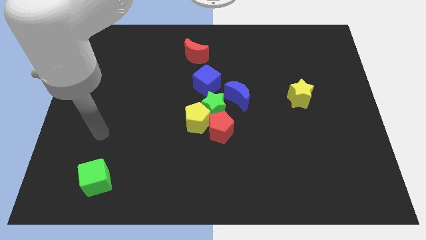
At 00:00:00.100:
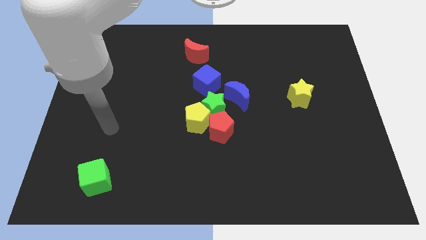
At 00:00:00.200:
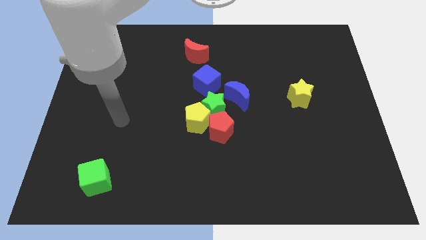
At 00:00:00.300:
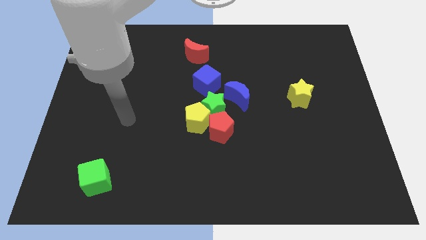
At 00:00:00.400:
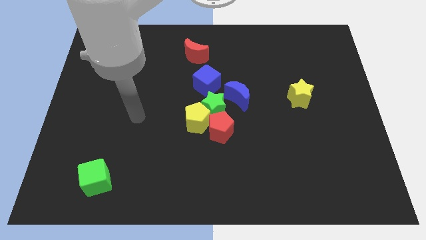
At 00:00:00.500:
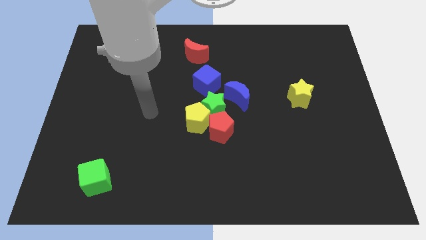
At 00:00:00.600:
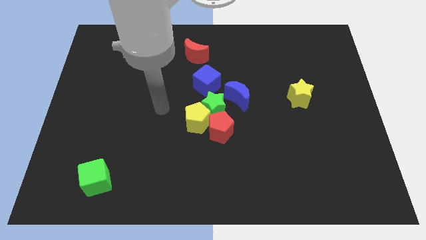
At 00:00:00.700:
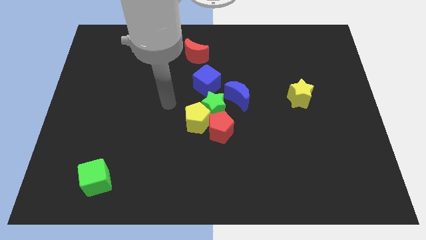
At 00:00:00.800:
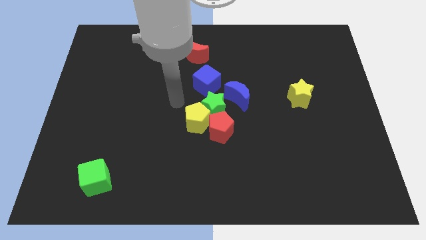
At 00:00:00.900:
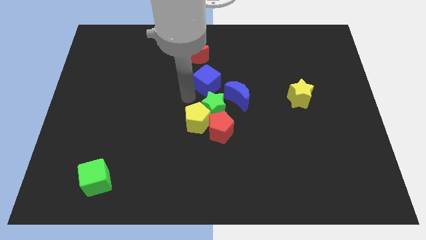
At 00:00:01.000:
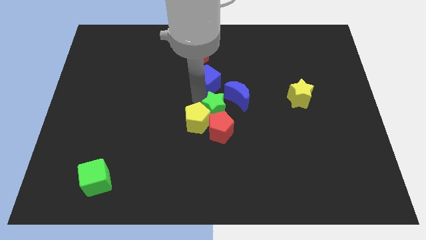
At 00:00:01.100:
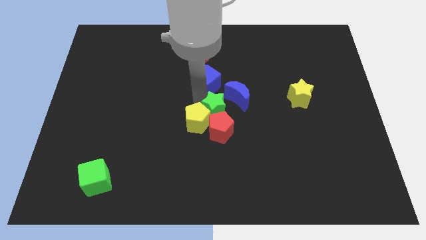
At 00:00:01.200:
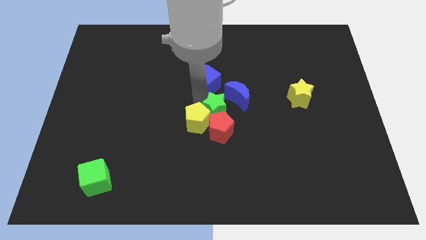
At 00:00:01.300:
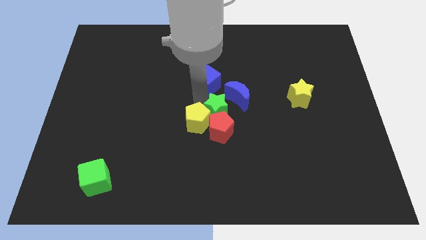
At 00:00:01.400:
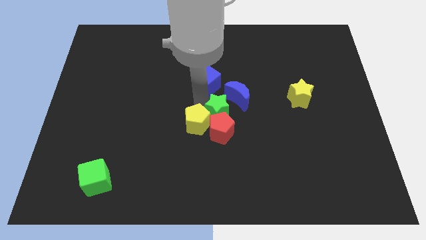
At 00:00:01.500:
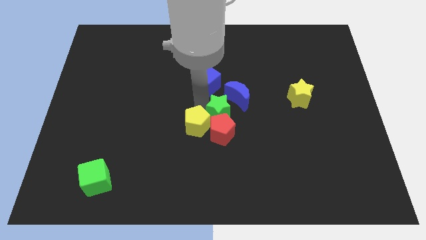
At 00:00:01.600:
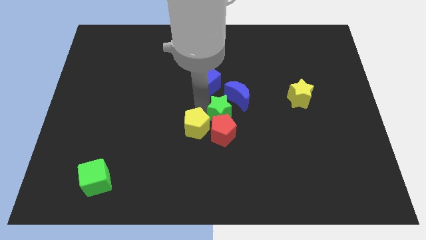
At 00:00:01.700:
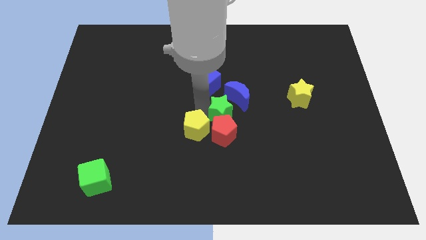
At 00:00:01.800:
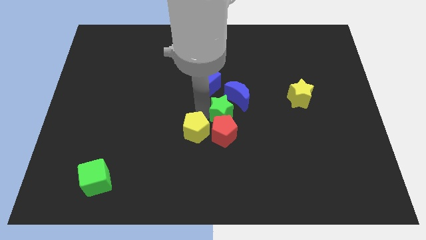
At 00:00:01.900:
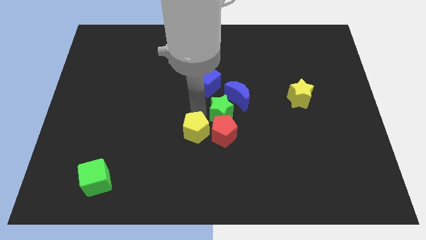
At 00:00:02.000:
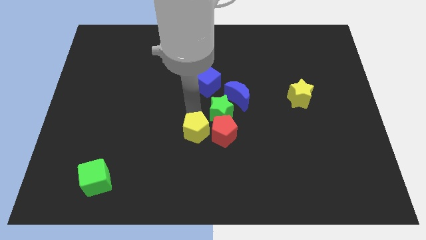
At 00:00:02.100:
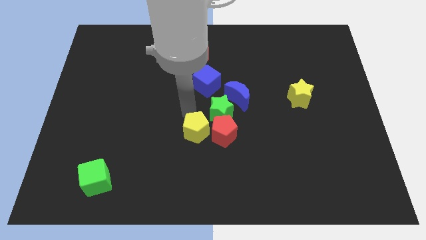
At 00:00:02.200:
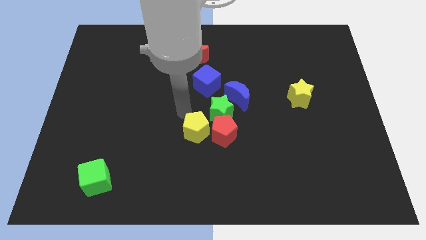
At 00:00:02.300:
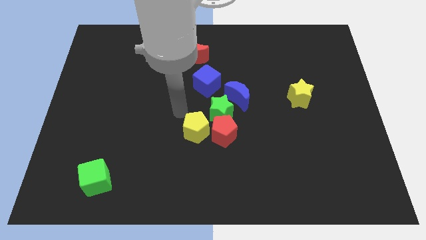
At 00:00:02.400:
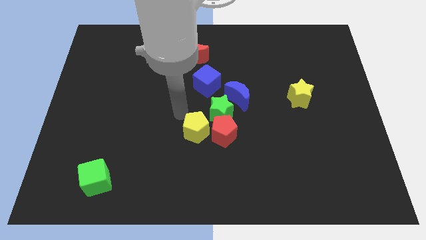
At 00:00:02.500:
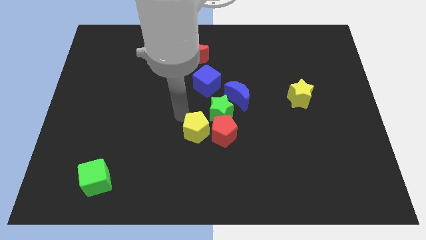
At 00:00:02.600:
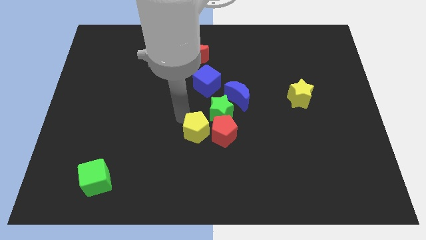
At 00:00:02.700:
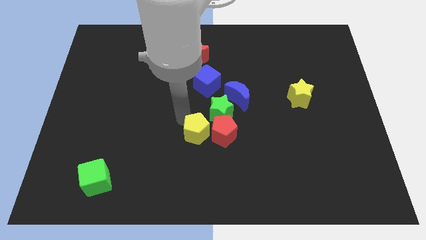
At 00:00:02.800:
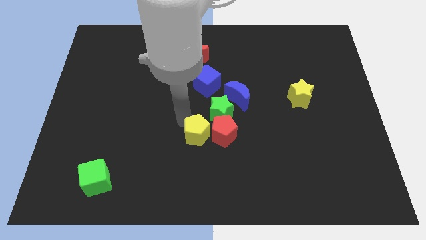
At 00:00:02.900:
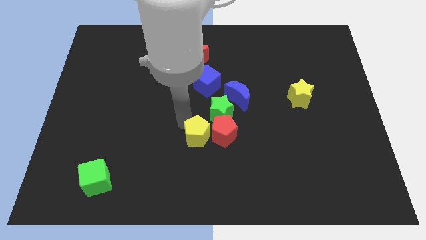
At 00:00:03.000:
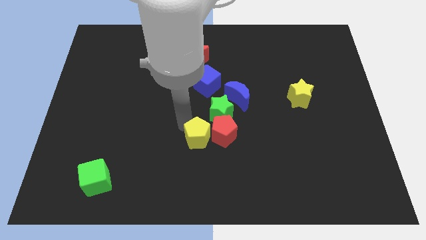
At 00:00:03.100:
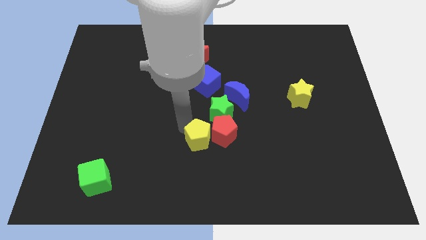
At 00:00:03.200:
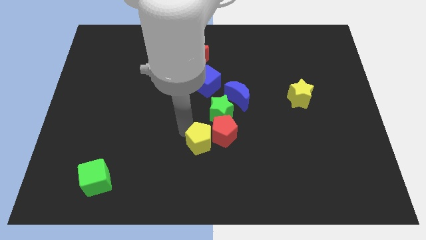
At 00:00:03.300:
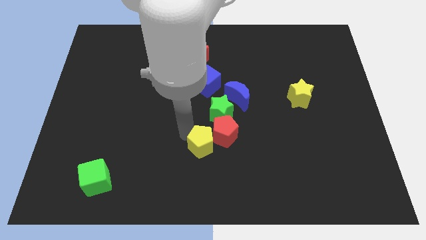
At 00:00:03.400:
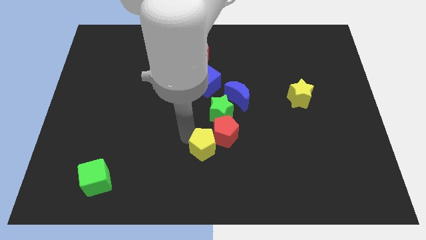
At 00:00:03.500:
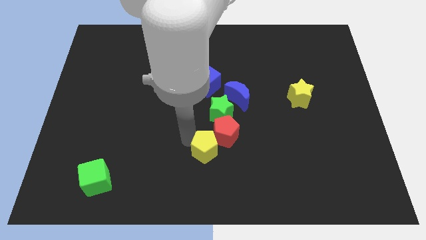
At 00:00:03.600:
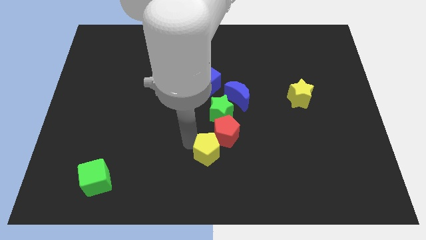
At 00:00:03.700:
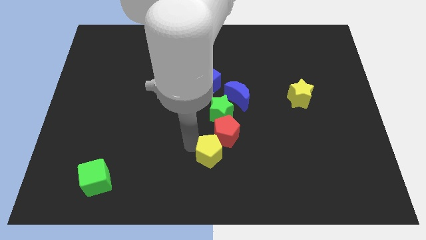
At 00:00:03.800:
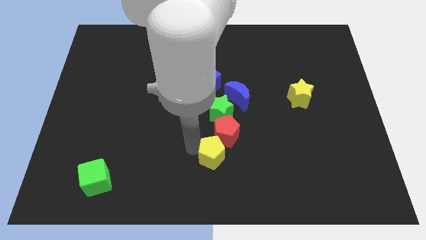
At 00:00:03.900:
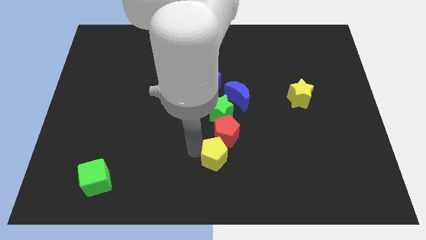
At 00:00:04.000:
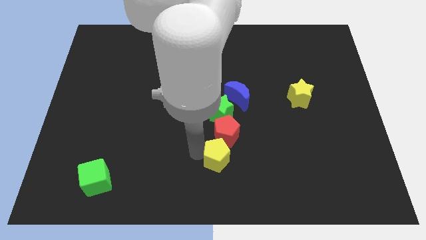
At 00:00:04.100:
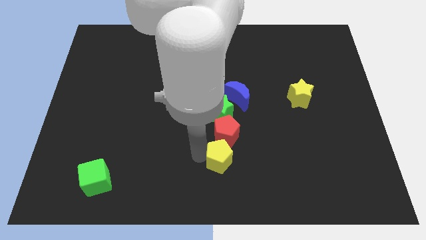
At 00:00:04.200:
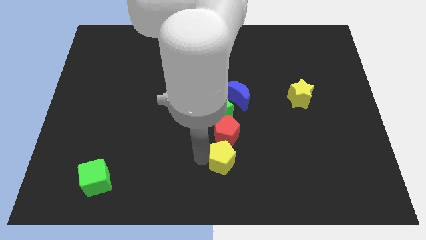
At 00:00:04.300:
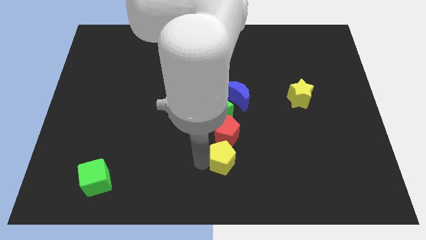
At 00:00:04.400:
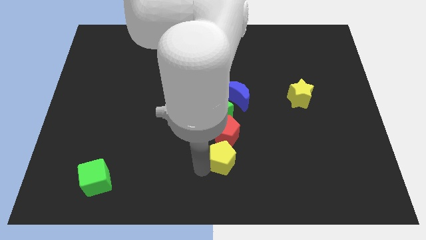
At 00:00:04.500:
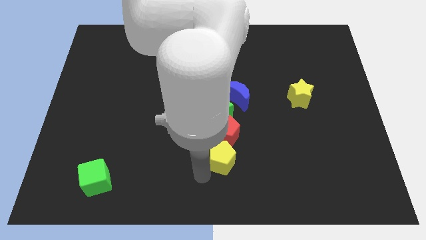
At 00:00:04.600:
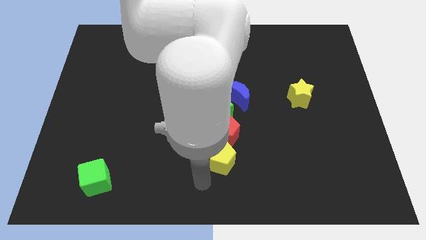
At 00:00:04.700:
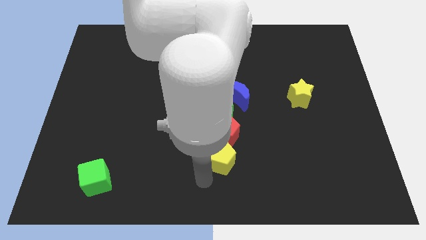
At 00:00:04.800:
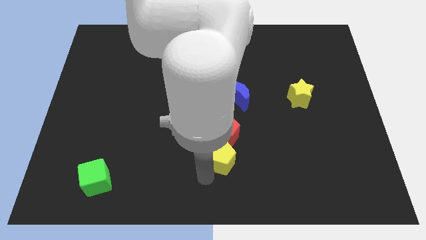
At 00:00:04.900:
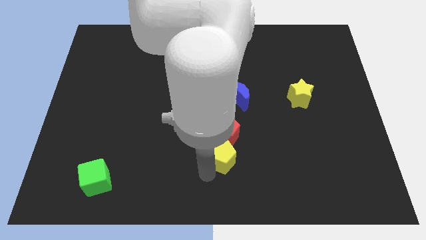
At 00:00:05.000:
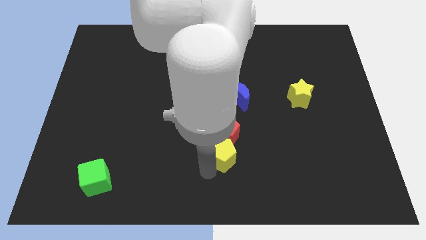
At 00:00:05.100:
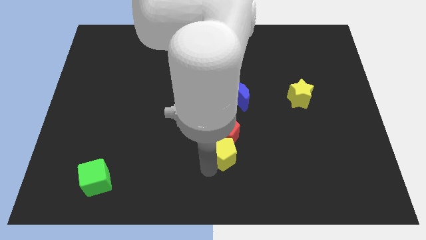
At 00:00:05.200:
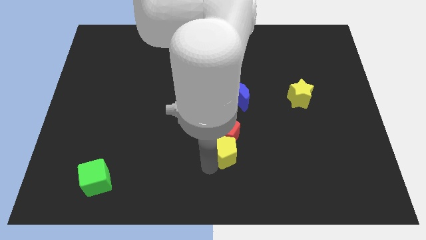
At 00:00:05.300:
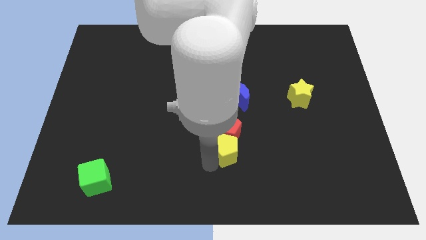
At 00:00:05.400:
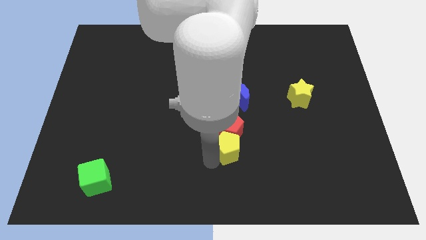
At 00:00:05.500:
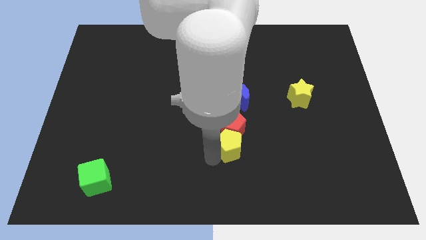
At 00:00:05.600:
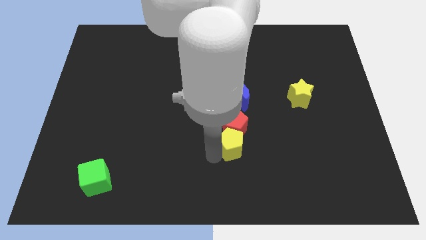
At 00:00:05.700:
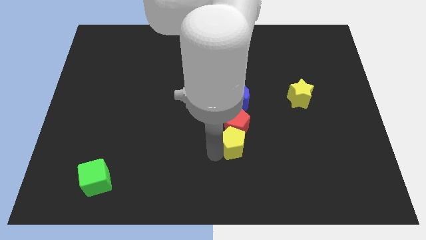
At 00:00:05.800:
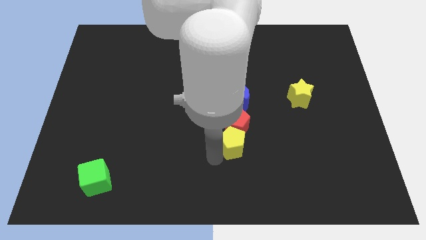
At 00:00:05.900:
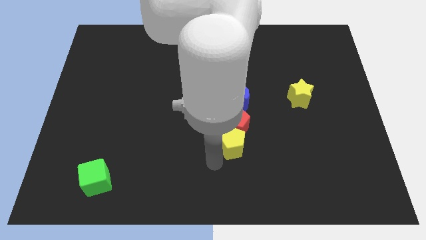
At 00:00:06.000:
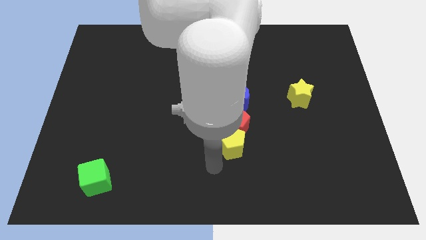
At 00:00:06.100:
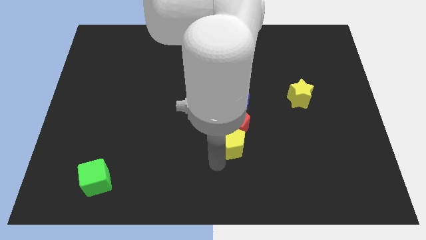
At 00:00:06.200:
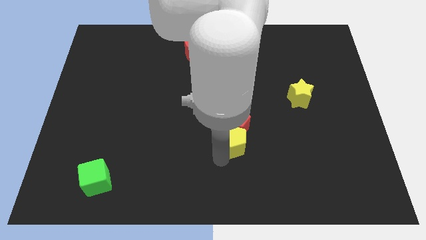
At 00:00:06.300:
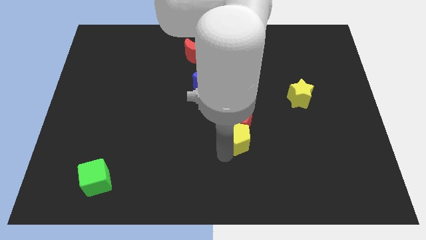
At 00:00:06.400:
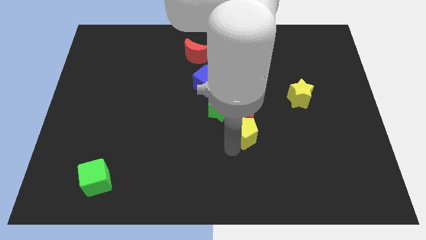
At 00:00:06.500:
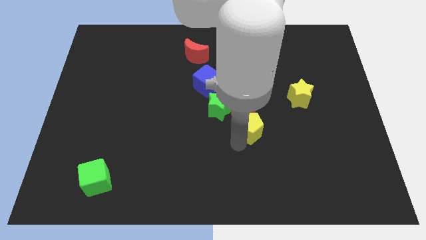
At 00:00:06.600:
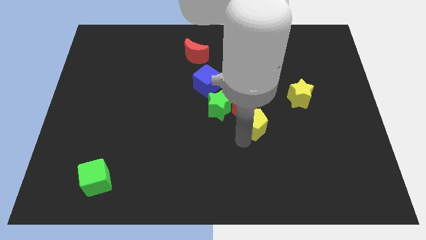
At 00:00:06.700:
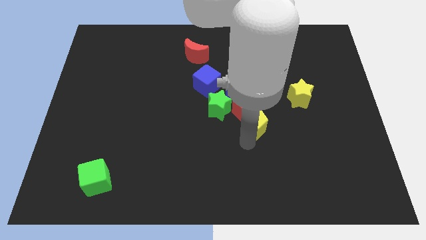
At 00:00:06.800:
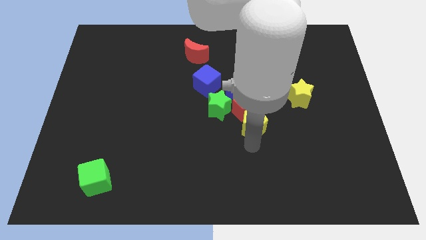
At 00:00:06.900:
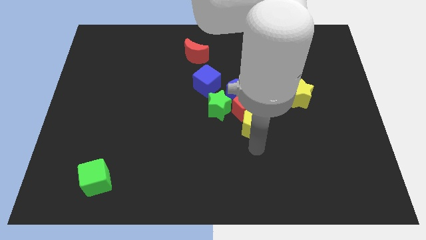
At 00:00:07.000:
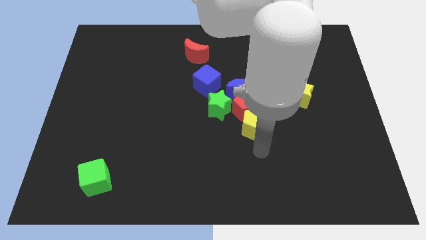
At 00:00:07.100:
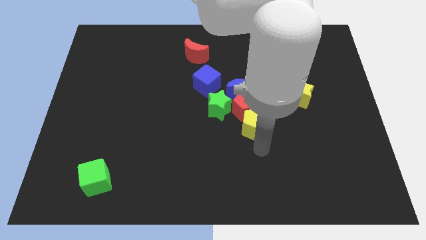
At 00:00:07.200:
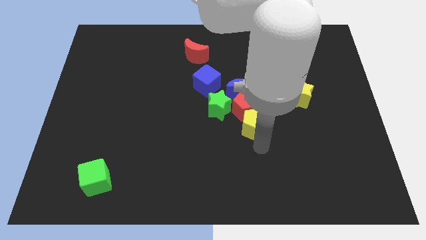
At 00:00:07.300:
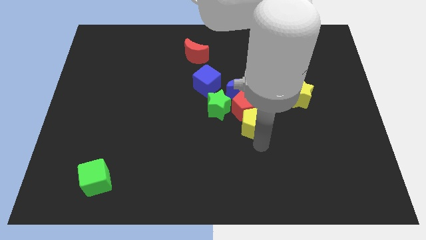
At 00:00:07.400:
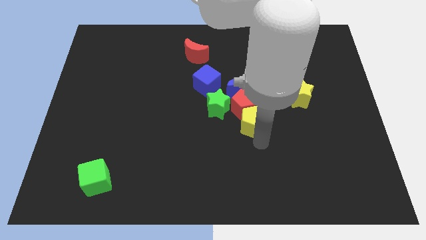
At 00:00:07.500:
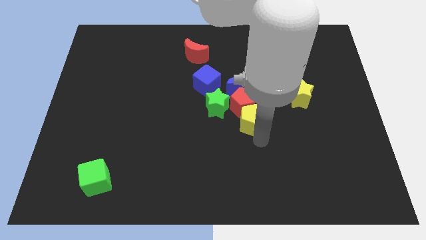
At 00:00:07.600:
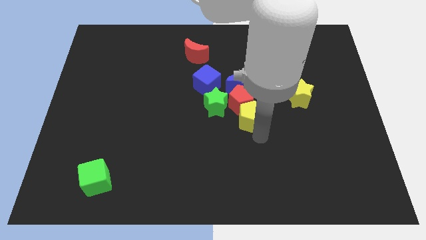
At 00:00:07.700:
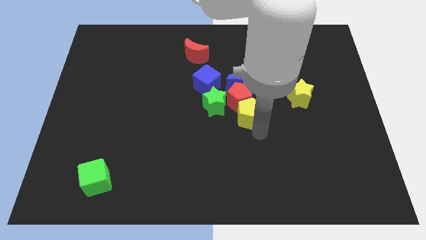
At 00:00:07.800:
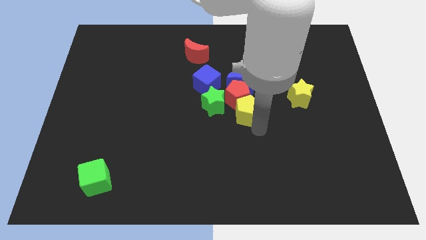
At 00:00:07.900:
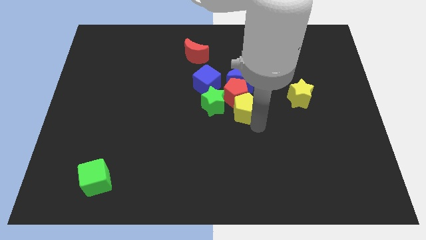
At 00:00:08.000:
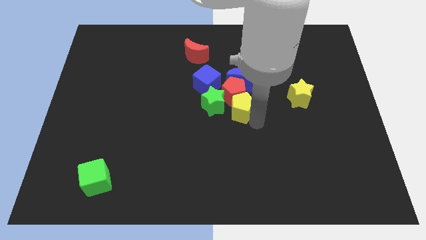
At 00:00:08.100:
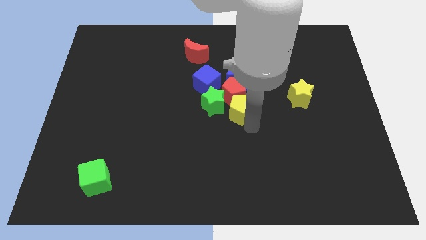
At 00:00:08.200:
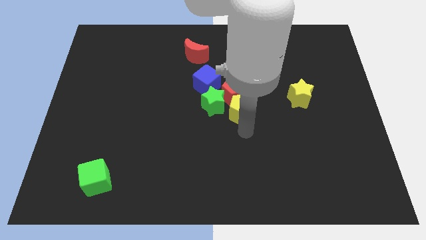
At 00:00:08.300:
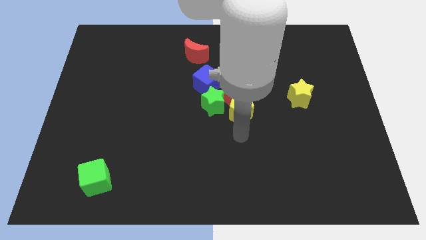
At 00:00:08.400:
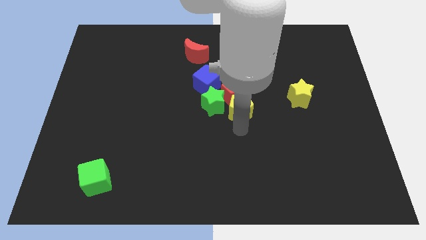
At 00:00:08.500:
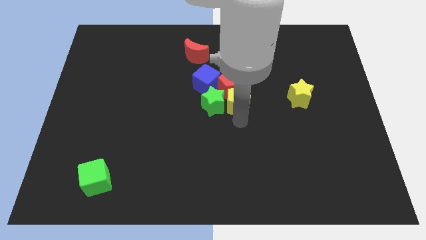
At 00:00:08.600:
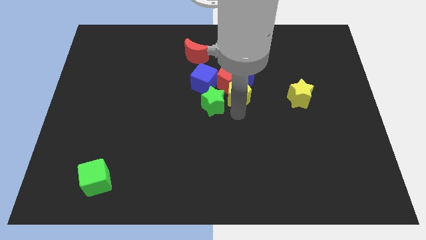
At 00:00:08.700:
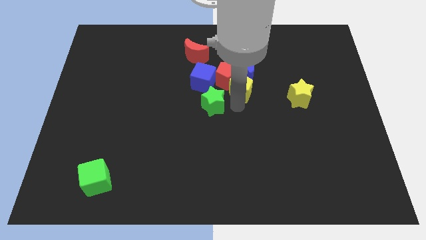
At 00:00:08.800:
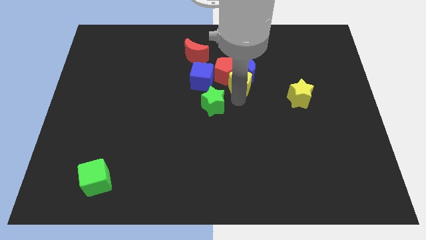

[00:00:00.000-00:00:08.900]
move the yellow pentagon towards the blue moon
